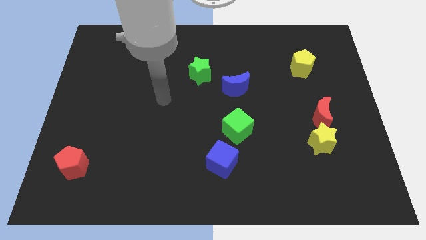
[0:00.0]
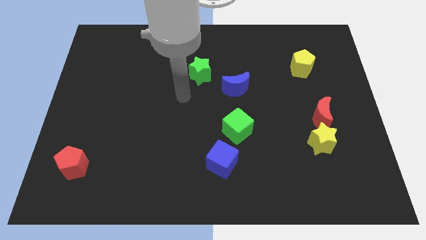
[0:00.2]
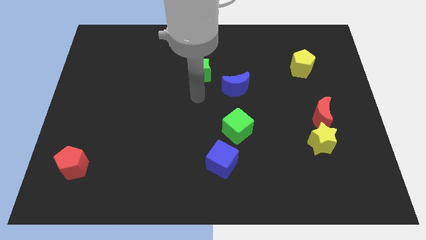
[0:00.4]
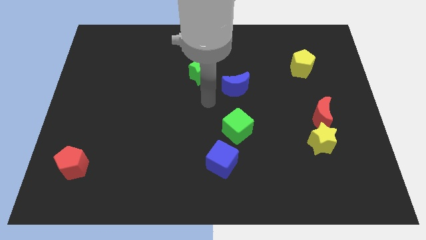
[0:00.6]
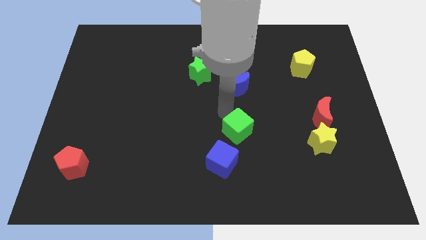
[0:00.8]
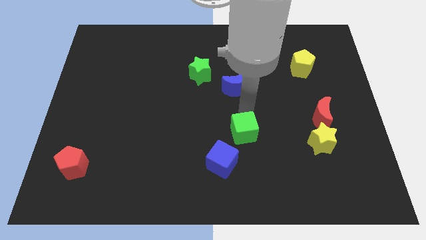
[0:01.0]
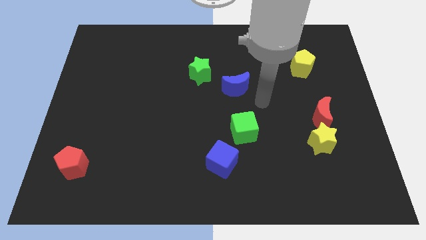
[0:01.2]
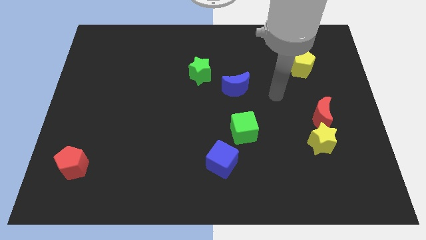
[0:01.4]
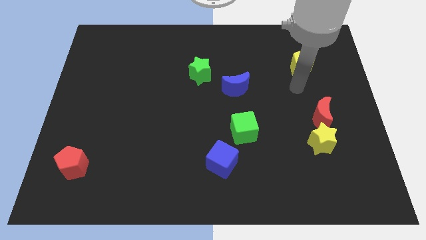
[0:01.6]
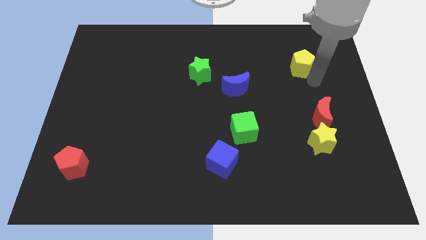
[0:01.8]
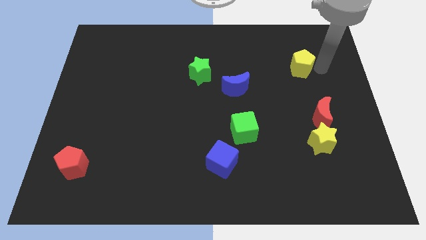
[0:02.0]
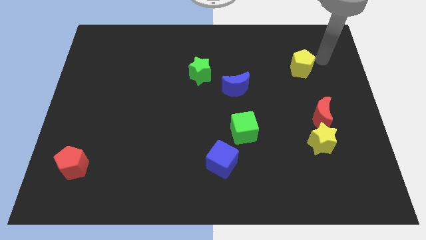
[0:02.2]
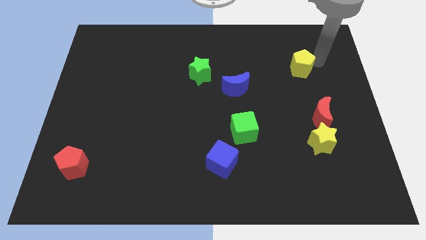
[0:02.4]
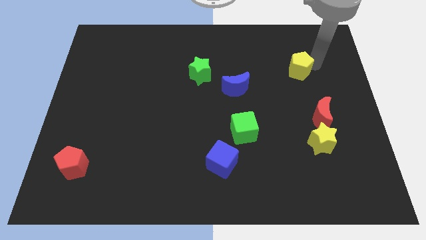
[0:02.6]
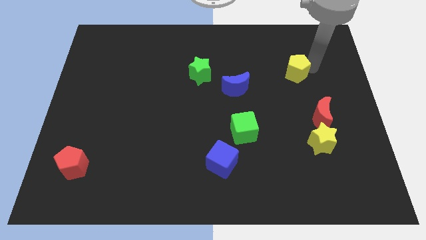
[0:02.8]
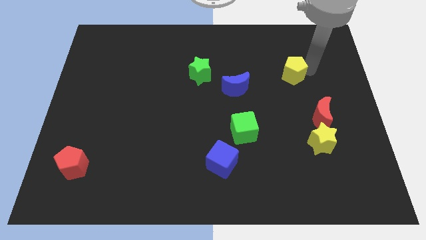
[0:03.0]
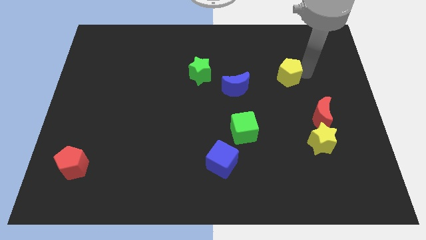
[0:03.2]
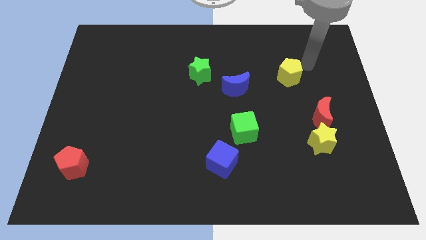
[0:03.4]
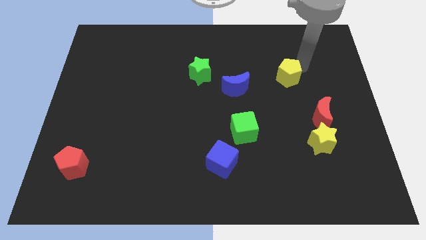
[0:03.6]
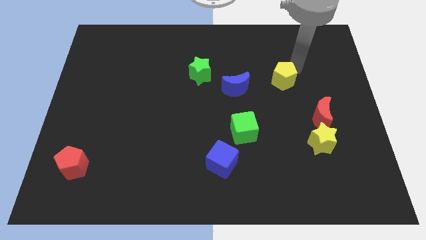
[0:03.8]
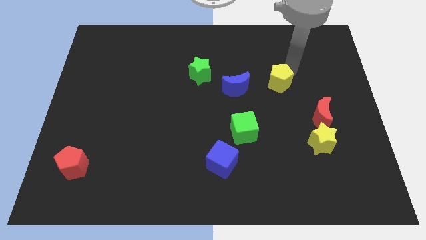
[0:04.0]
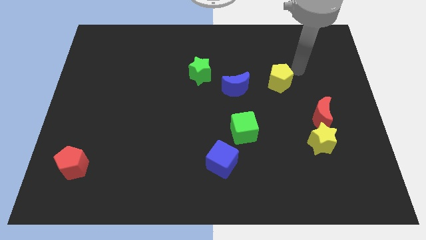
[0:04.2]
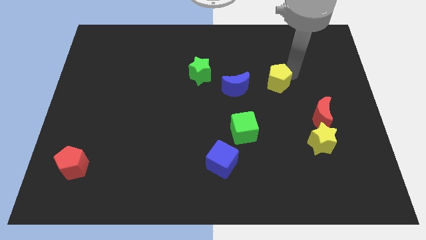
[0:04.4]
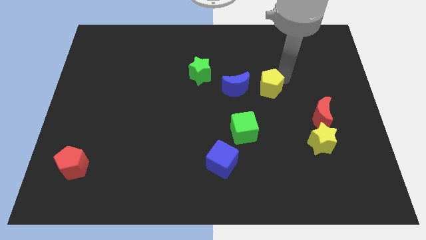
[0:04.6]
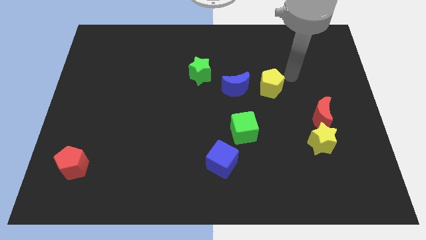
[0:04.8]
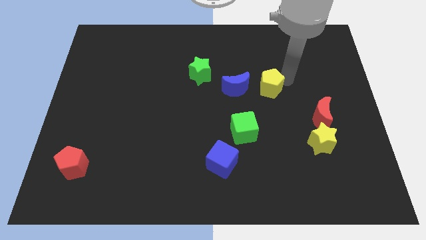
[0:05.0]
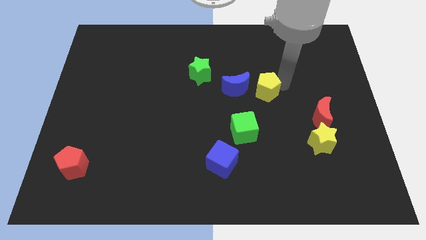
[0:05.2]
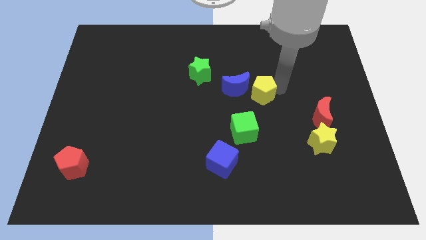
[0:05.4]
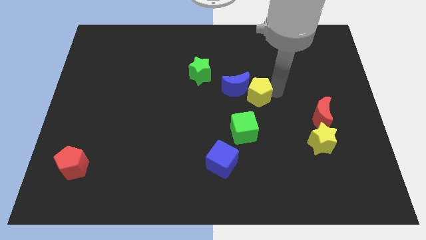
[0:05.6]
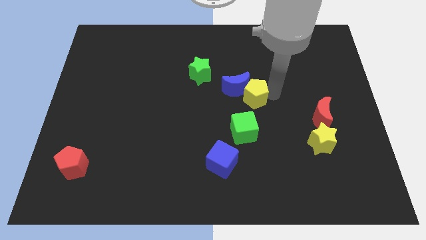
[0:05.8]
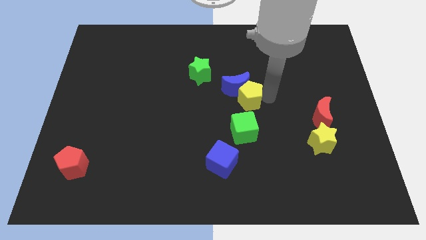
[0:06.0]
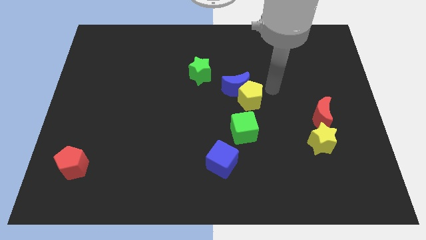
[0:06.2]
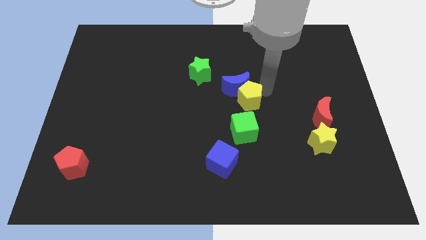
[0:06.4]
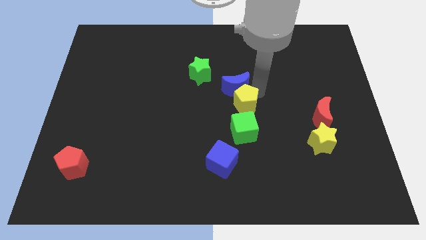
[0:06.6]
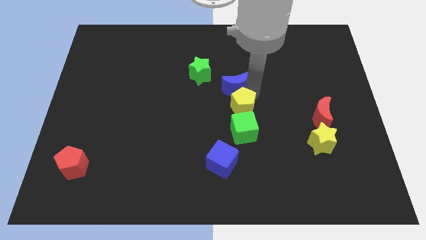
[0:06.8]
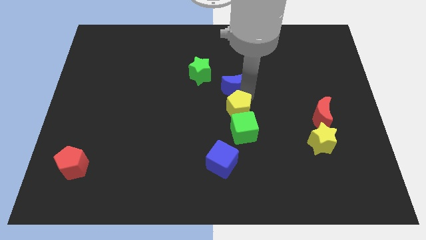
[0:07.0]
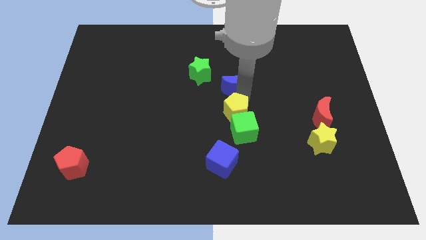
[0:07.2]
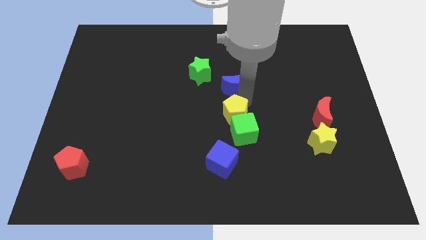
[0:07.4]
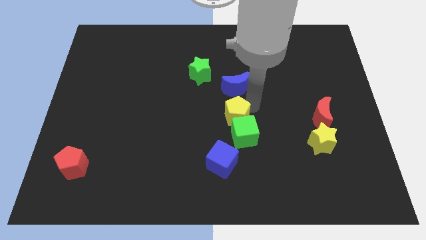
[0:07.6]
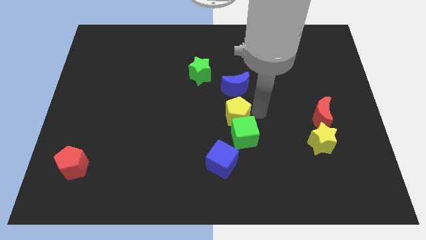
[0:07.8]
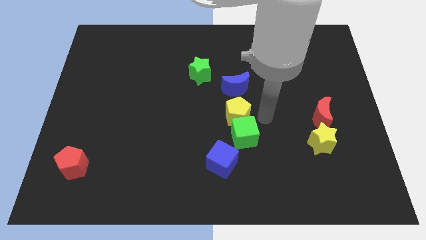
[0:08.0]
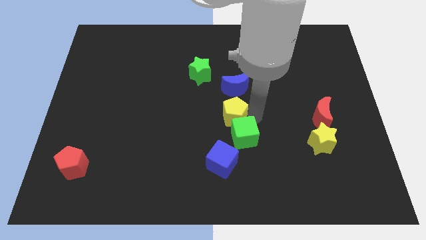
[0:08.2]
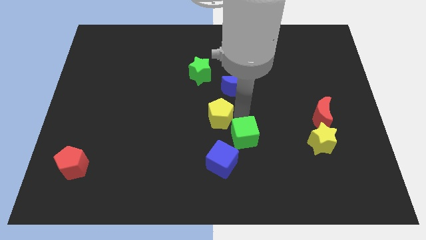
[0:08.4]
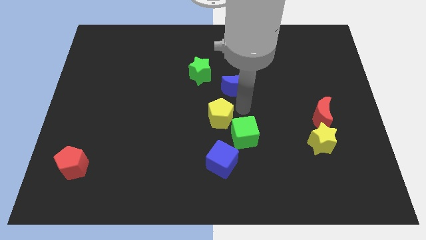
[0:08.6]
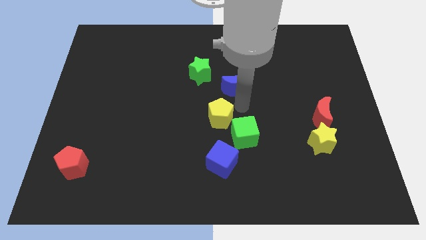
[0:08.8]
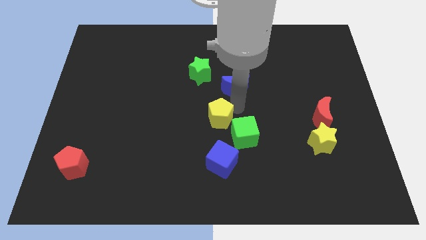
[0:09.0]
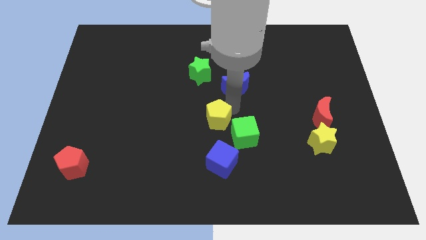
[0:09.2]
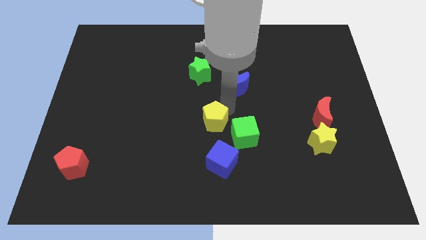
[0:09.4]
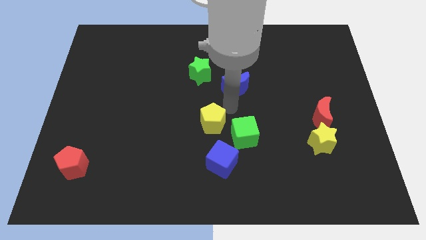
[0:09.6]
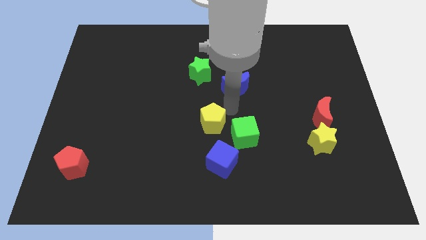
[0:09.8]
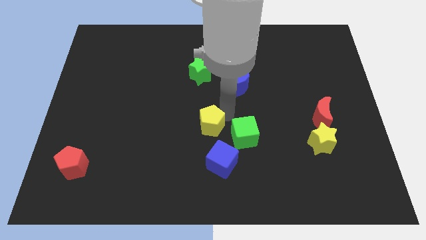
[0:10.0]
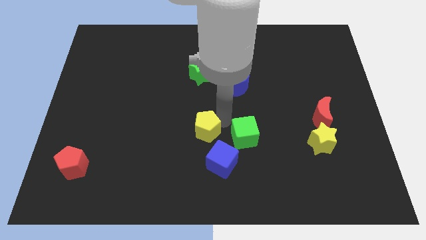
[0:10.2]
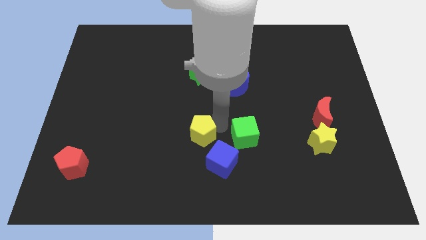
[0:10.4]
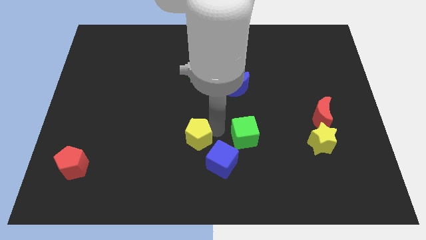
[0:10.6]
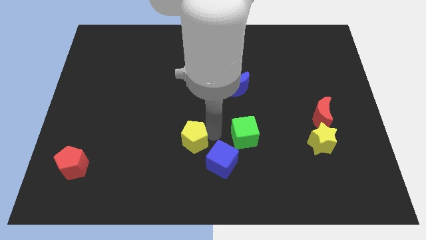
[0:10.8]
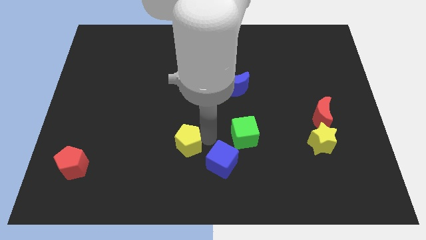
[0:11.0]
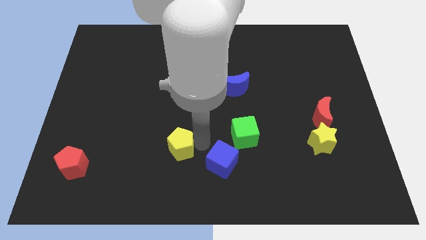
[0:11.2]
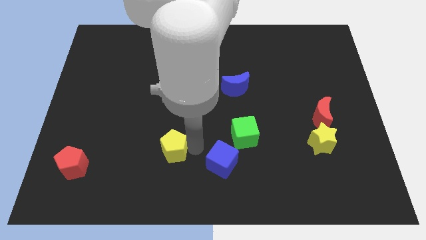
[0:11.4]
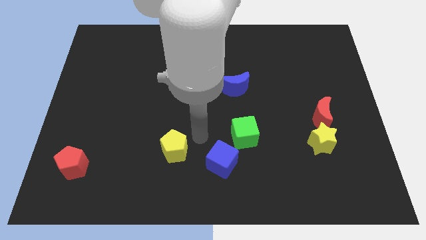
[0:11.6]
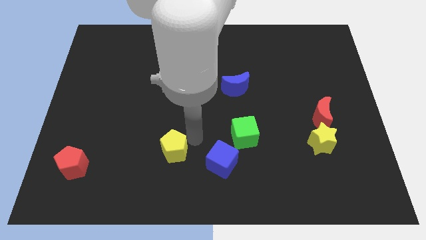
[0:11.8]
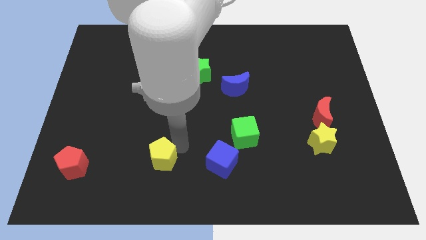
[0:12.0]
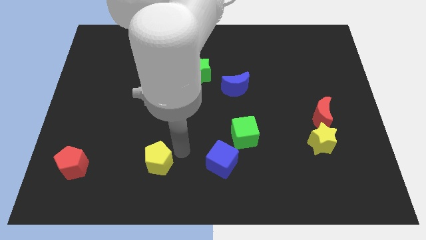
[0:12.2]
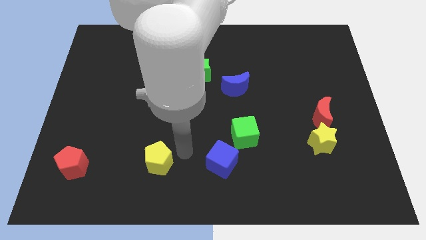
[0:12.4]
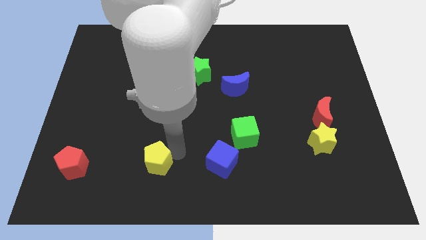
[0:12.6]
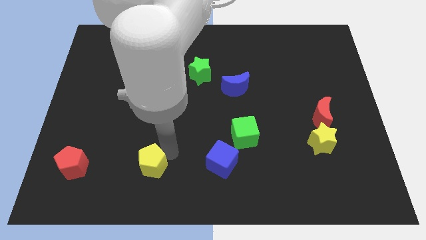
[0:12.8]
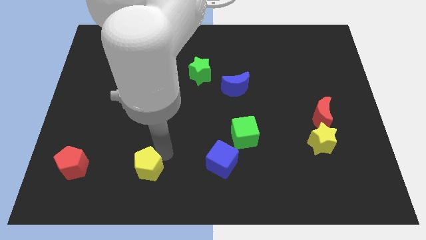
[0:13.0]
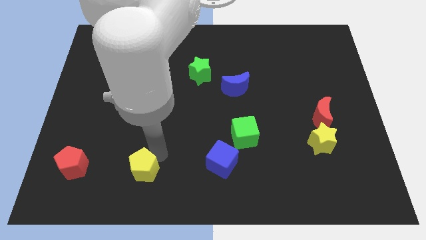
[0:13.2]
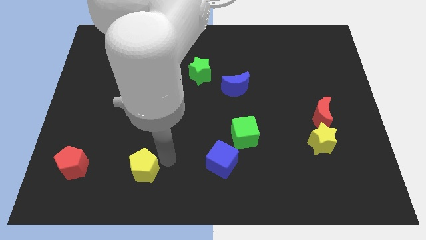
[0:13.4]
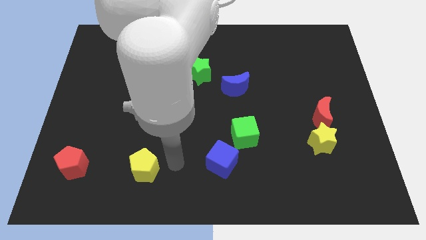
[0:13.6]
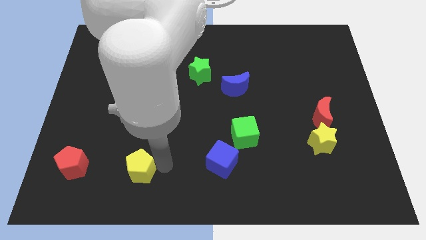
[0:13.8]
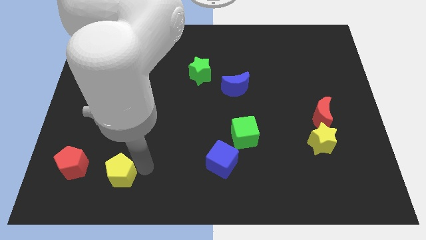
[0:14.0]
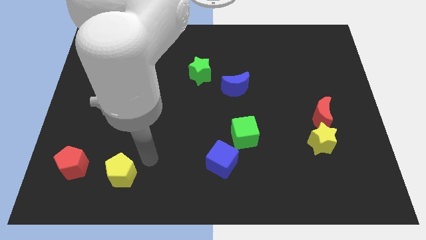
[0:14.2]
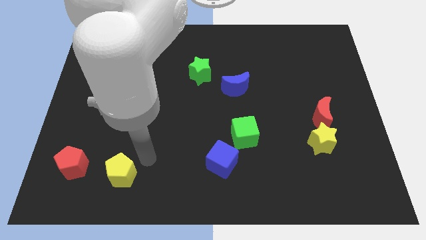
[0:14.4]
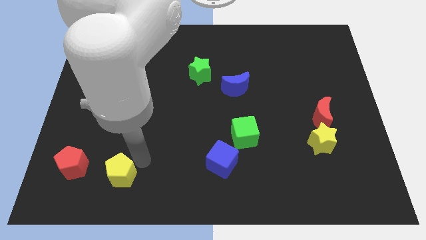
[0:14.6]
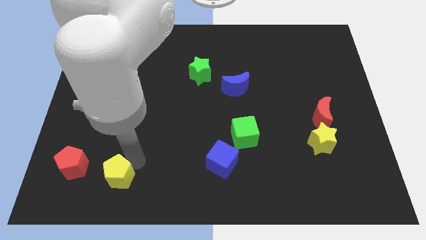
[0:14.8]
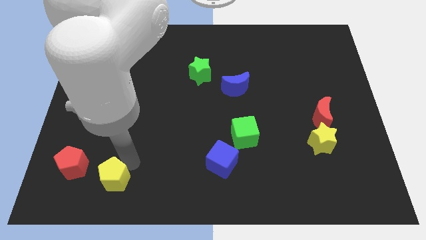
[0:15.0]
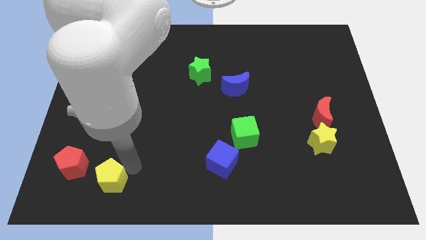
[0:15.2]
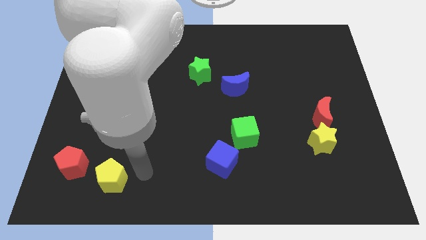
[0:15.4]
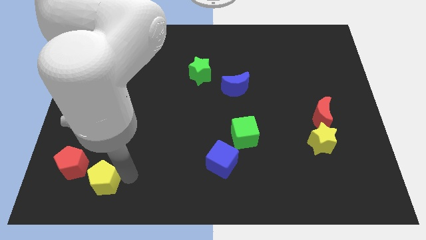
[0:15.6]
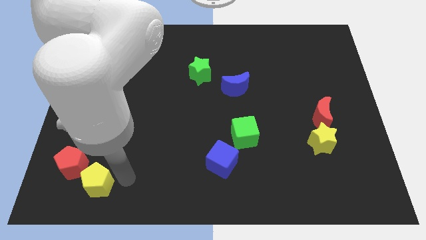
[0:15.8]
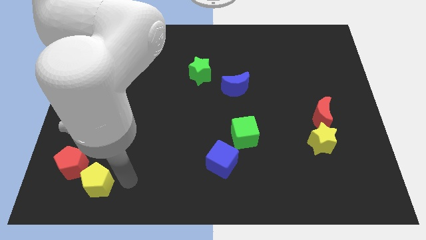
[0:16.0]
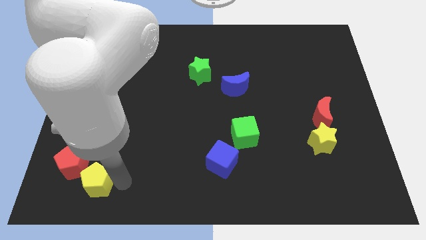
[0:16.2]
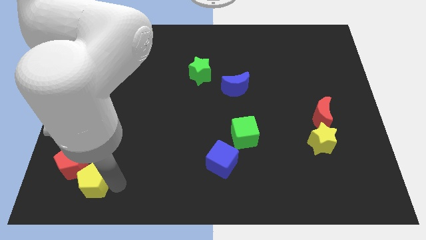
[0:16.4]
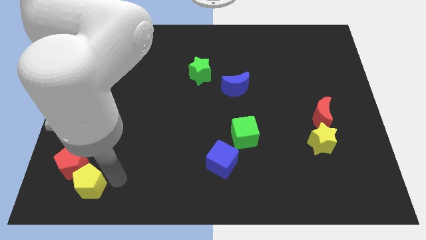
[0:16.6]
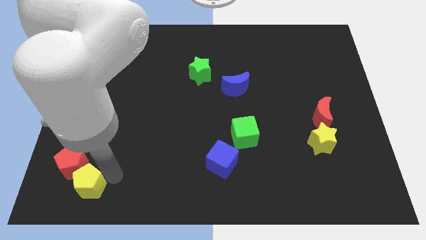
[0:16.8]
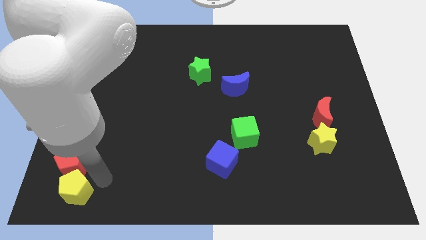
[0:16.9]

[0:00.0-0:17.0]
slide the yellow pentagon to the bottom left
